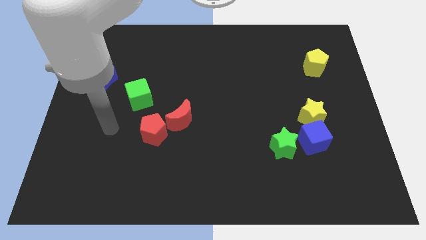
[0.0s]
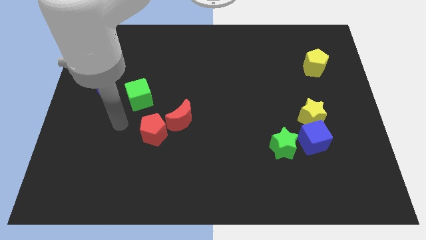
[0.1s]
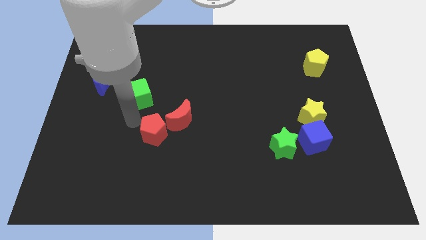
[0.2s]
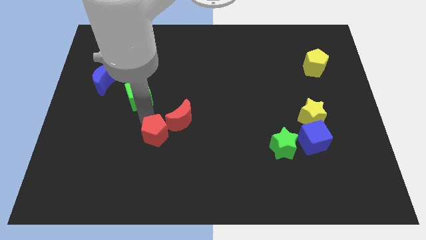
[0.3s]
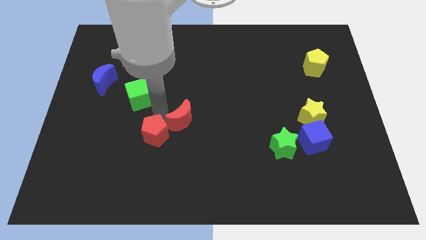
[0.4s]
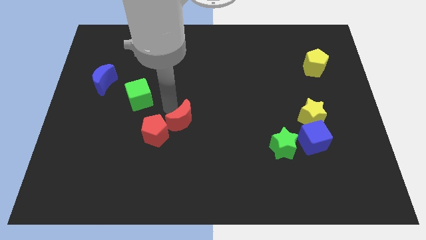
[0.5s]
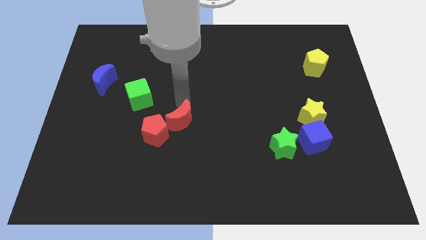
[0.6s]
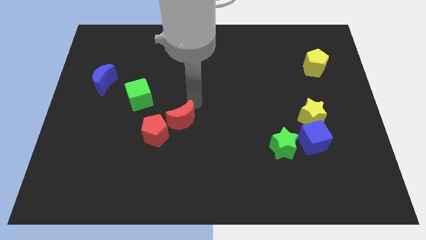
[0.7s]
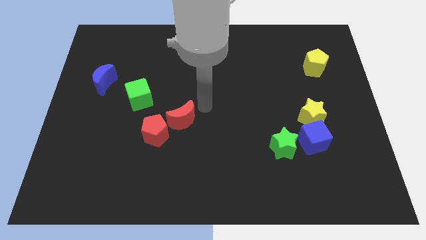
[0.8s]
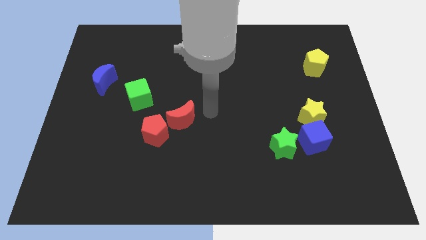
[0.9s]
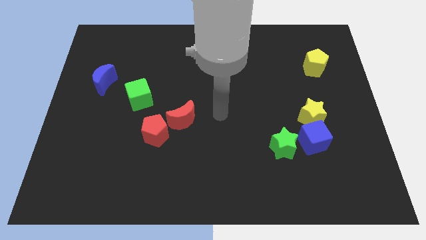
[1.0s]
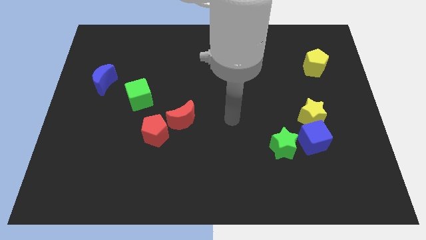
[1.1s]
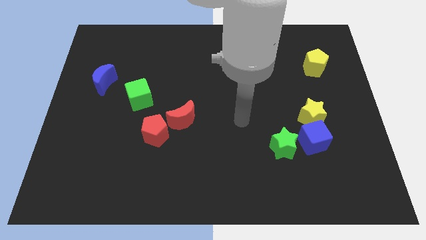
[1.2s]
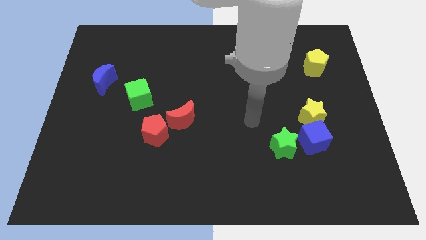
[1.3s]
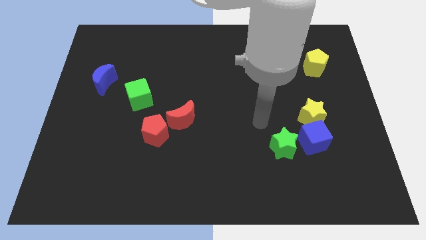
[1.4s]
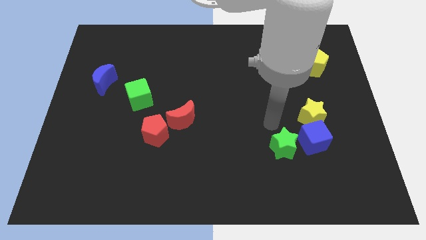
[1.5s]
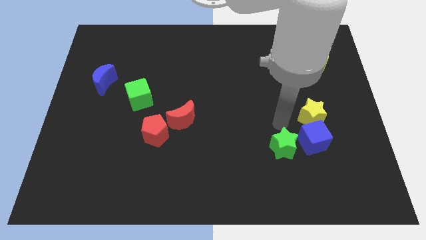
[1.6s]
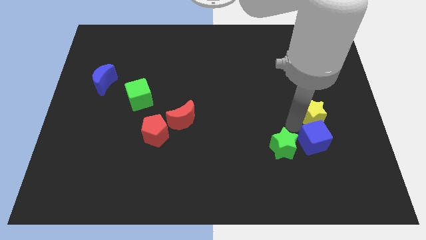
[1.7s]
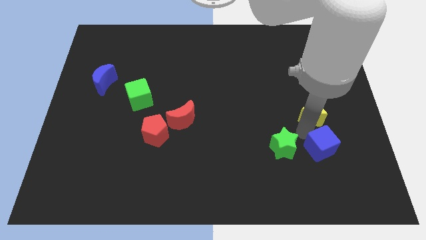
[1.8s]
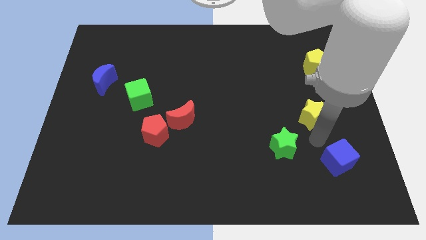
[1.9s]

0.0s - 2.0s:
move the yellow star away from the blue cube

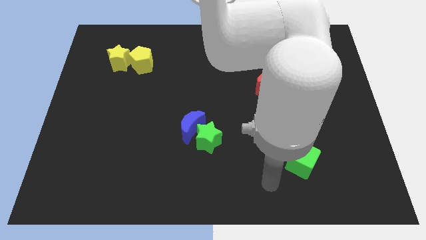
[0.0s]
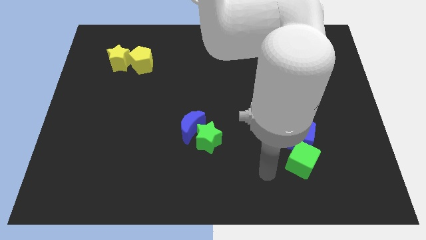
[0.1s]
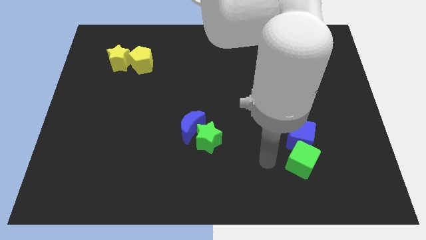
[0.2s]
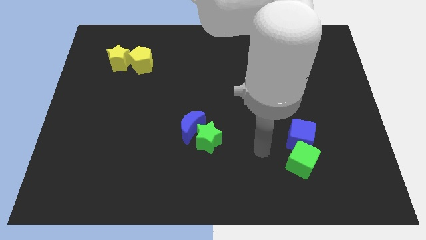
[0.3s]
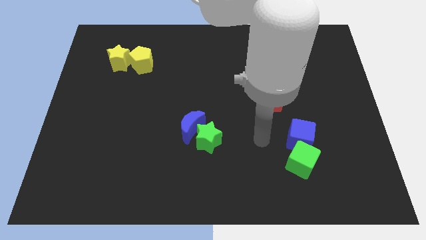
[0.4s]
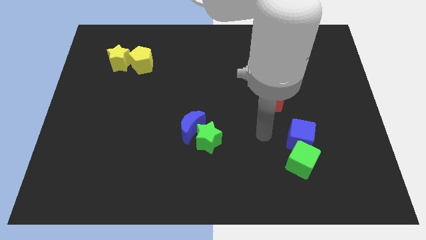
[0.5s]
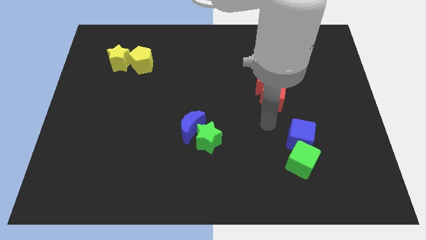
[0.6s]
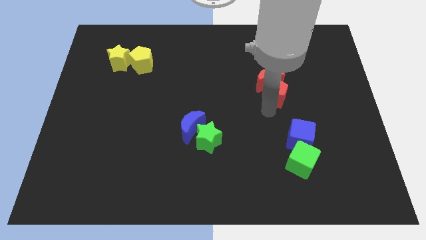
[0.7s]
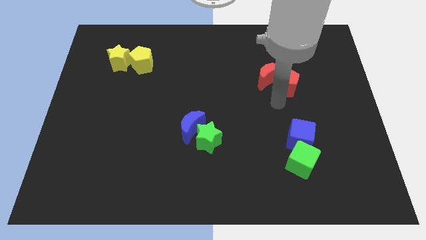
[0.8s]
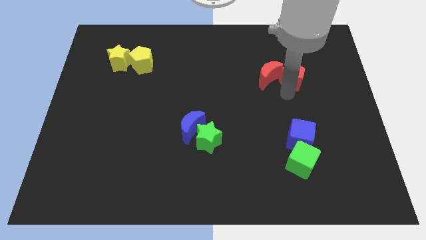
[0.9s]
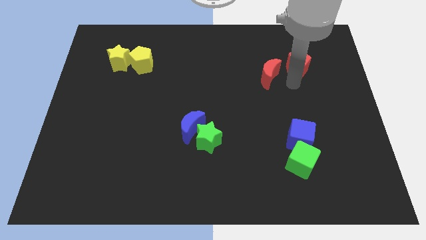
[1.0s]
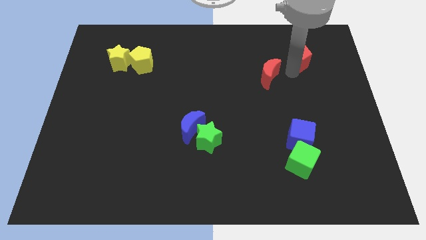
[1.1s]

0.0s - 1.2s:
separate the red moon from the red pentagon

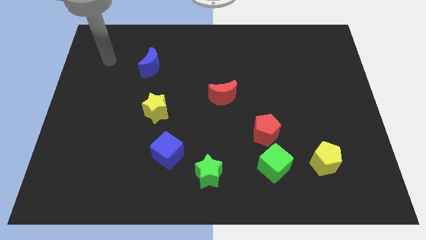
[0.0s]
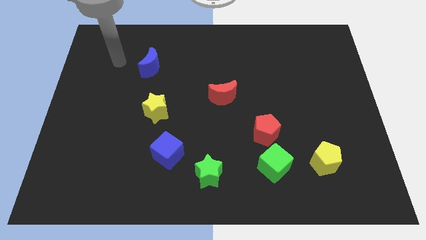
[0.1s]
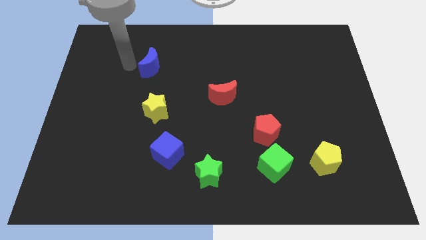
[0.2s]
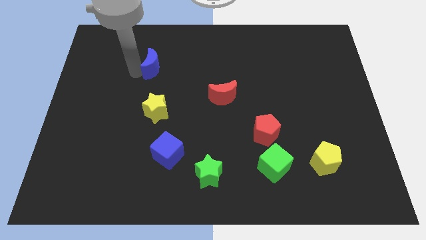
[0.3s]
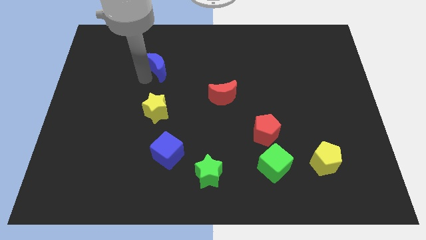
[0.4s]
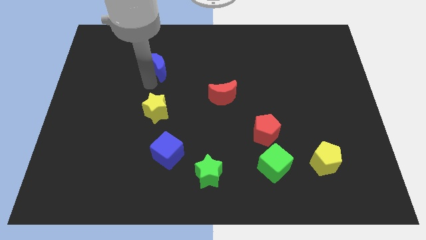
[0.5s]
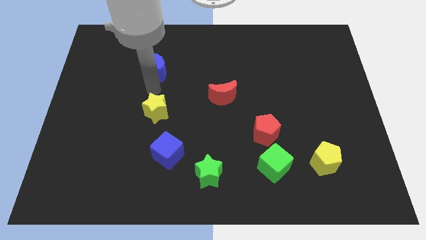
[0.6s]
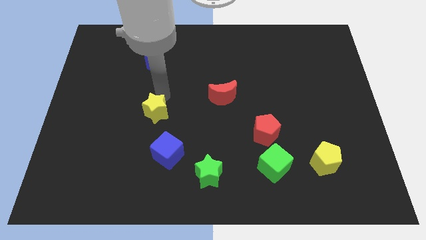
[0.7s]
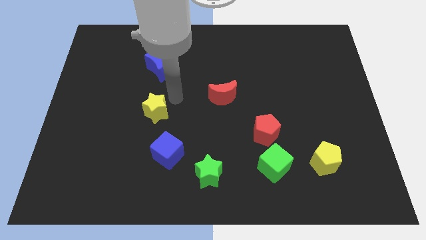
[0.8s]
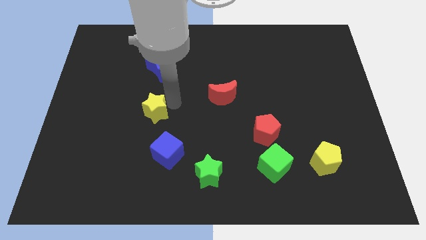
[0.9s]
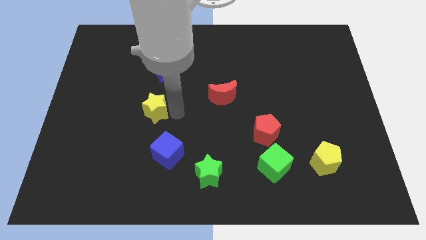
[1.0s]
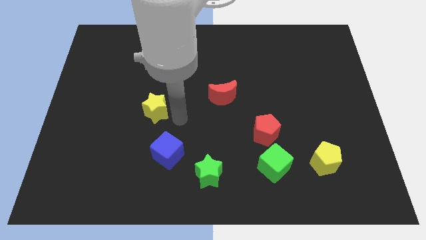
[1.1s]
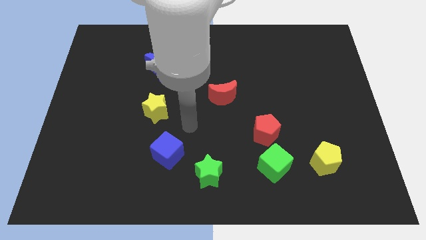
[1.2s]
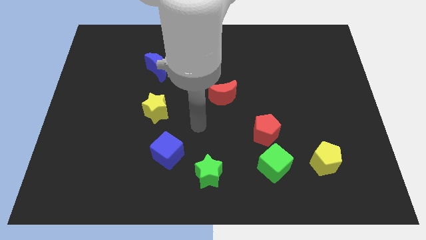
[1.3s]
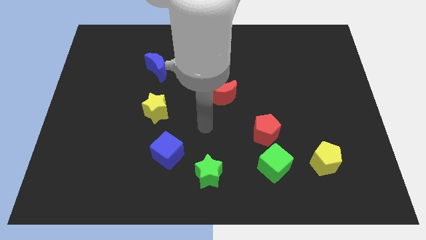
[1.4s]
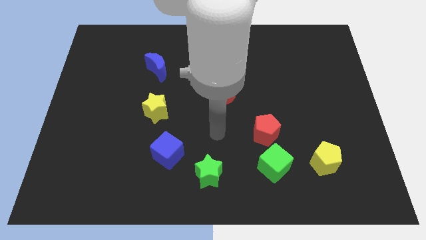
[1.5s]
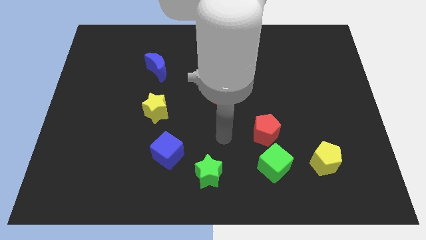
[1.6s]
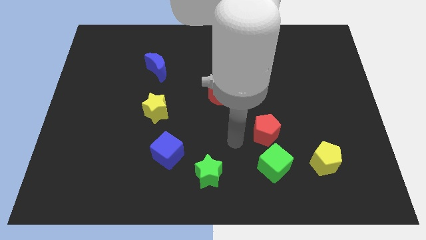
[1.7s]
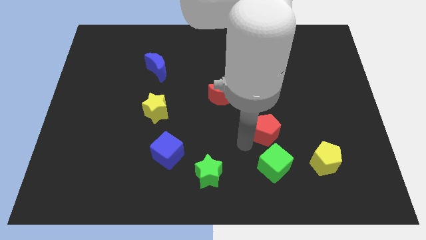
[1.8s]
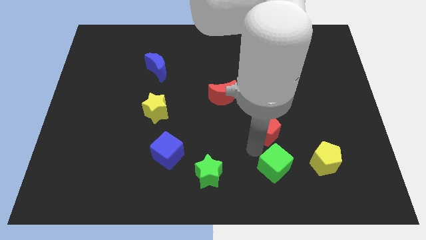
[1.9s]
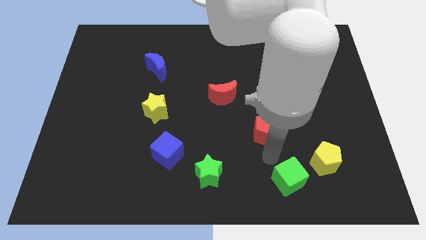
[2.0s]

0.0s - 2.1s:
pull the red pentagon apart from the green cube

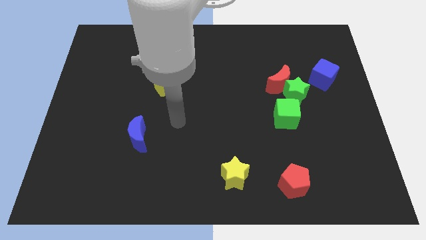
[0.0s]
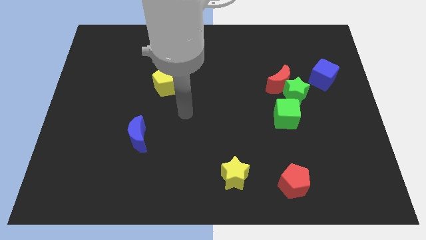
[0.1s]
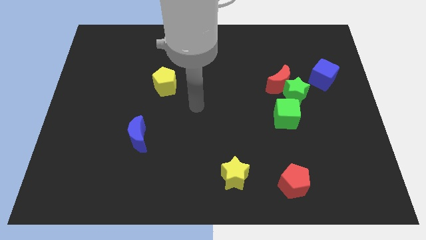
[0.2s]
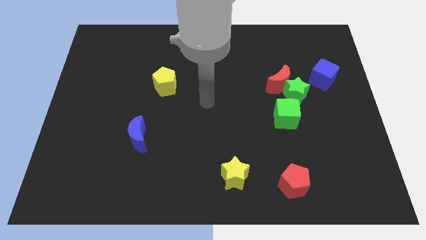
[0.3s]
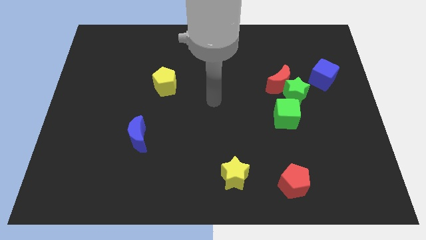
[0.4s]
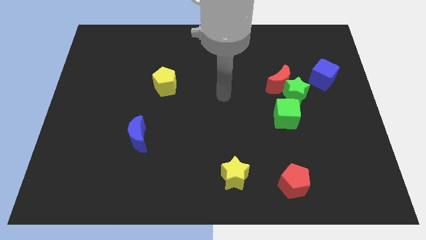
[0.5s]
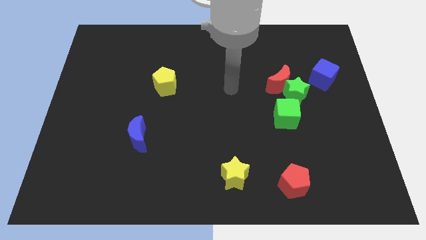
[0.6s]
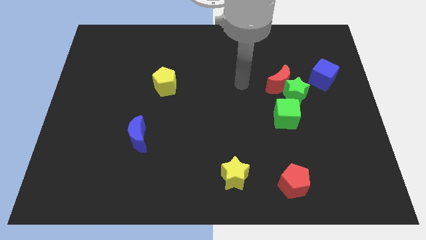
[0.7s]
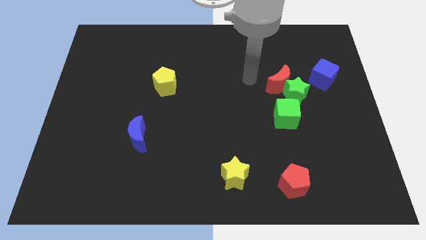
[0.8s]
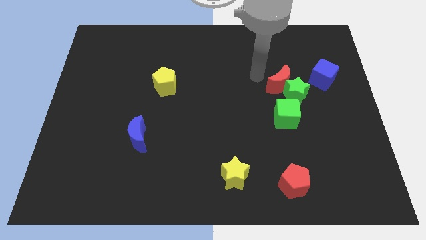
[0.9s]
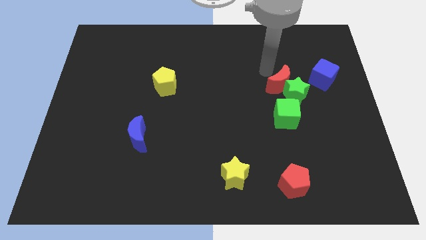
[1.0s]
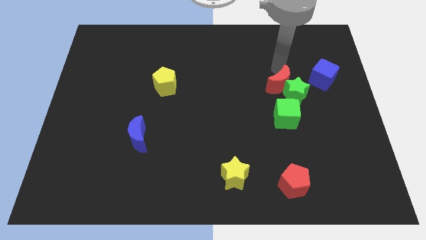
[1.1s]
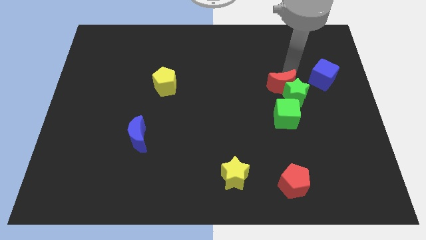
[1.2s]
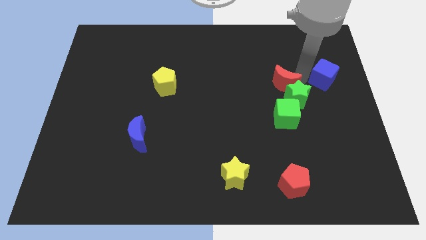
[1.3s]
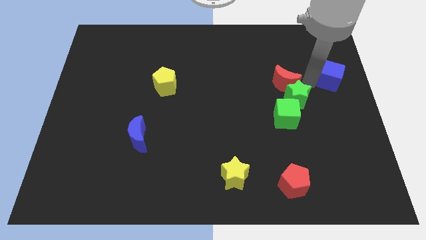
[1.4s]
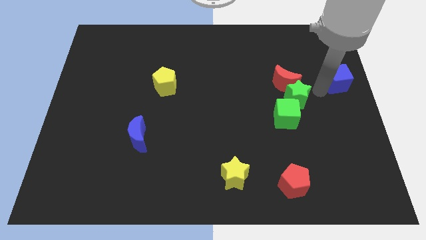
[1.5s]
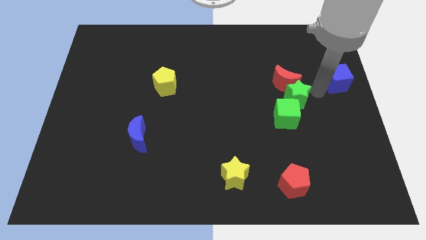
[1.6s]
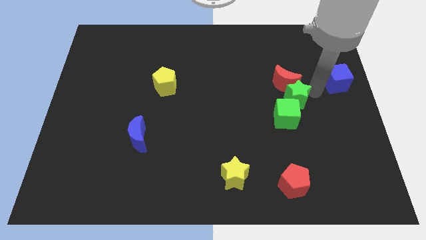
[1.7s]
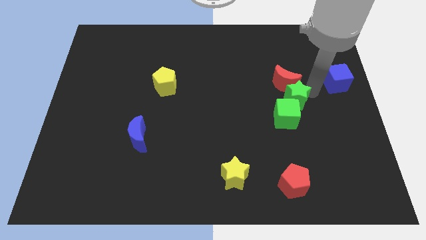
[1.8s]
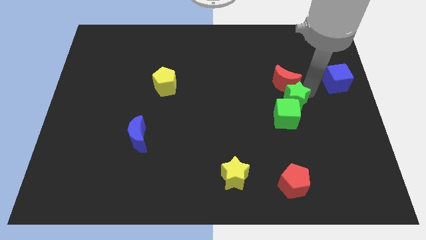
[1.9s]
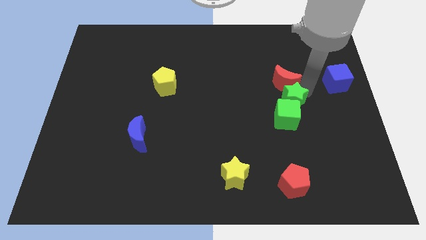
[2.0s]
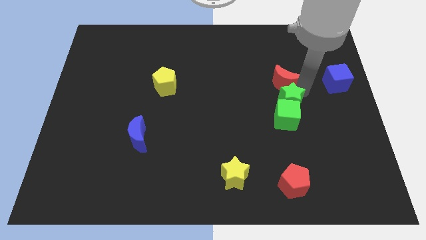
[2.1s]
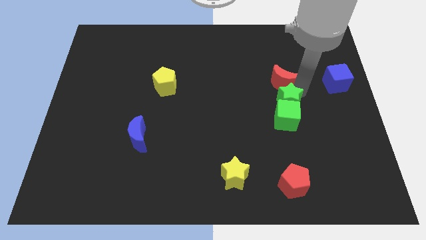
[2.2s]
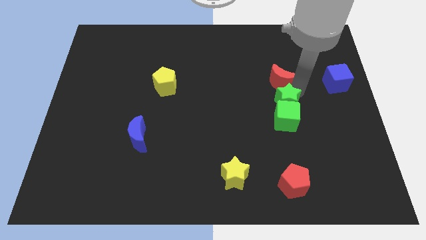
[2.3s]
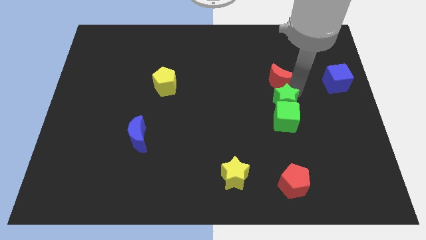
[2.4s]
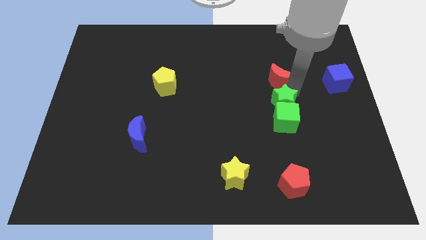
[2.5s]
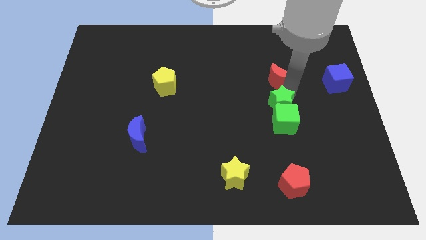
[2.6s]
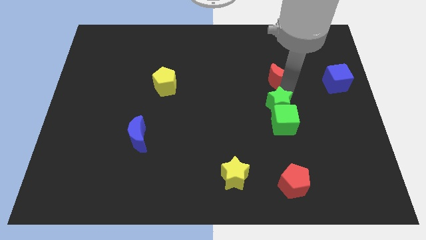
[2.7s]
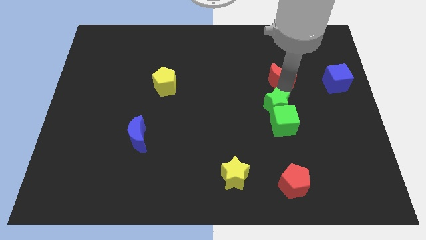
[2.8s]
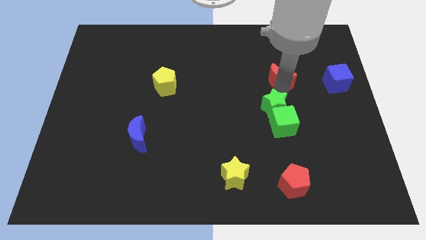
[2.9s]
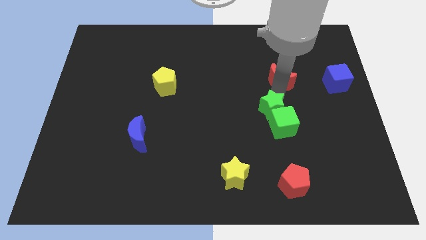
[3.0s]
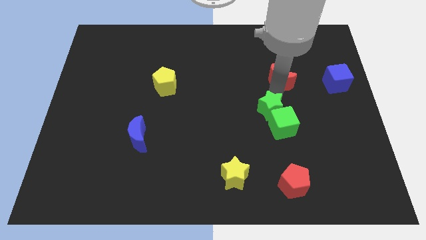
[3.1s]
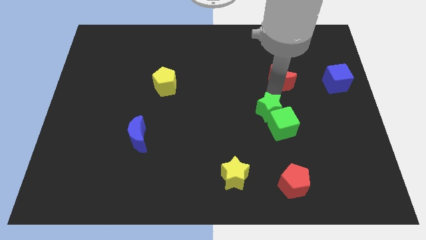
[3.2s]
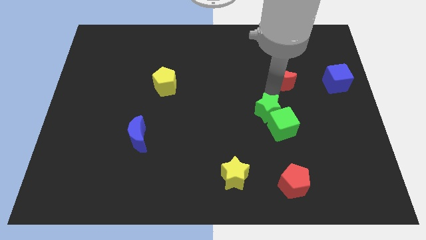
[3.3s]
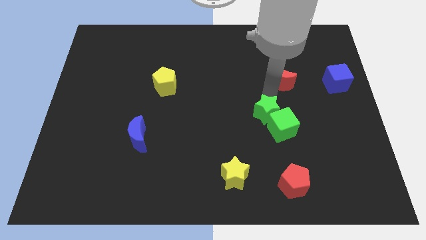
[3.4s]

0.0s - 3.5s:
move the green star away from the clump

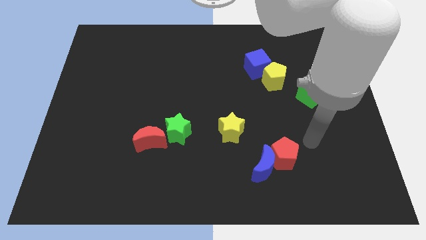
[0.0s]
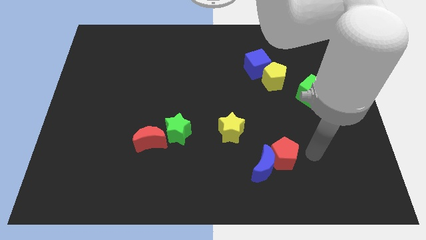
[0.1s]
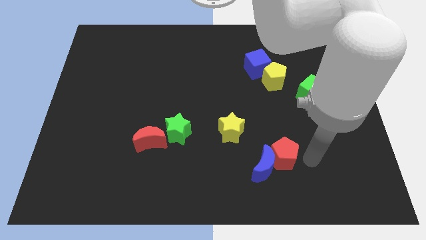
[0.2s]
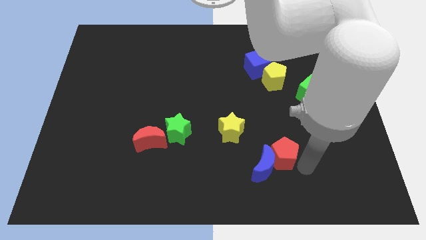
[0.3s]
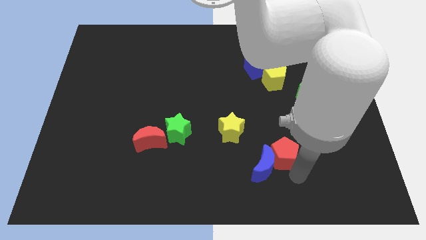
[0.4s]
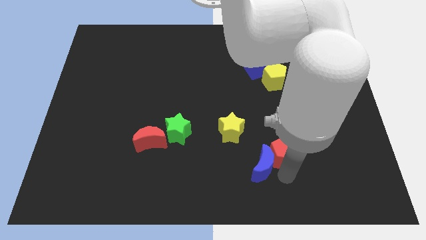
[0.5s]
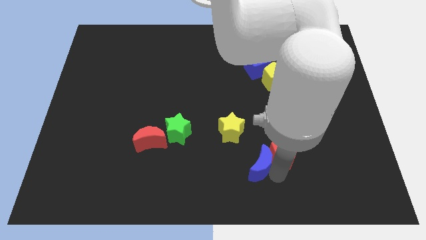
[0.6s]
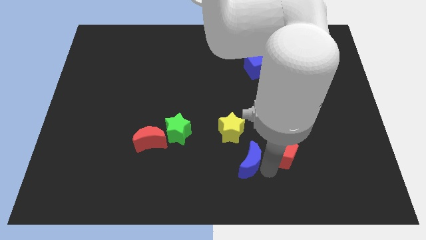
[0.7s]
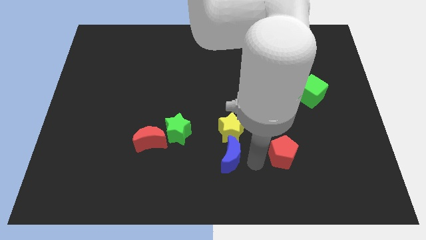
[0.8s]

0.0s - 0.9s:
separate the red pentagon from the blue moon
